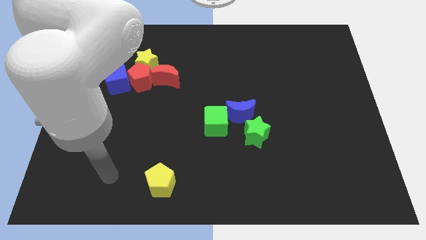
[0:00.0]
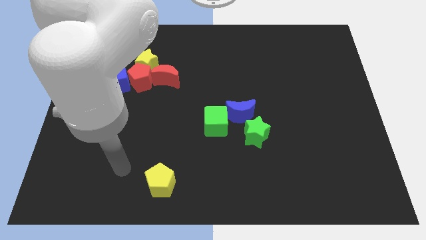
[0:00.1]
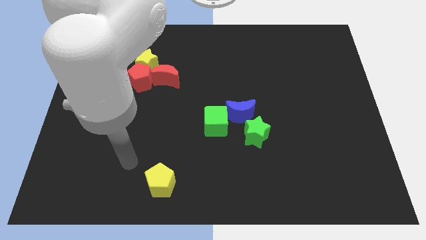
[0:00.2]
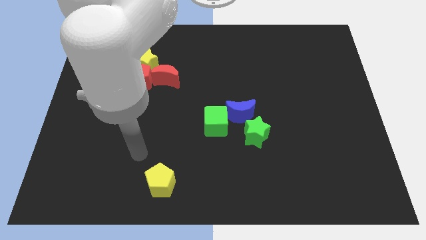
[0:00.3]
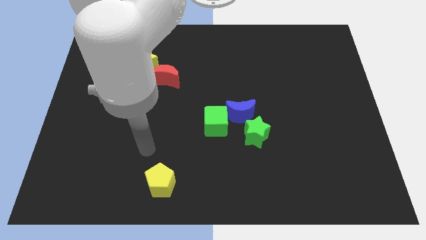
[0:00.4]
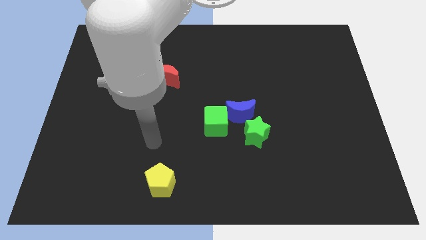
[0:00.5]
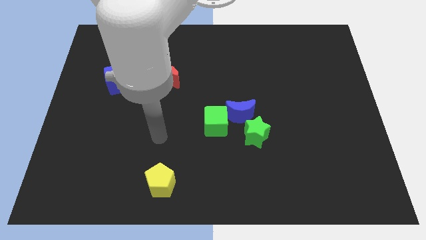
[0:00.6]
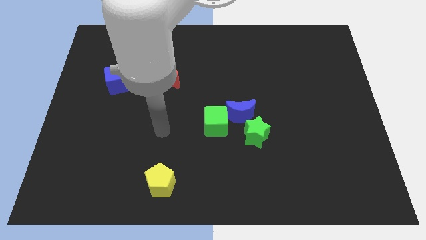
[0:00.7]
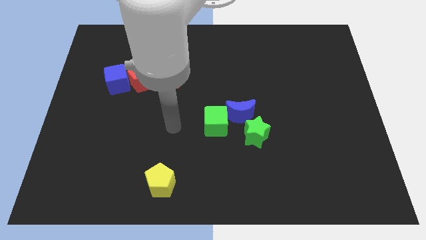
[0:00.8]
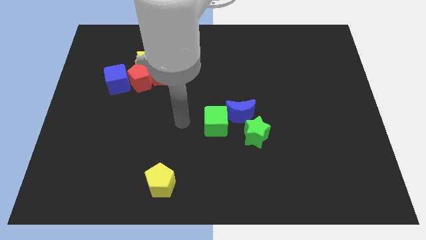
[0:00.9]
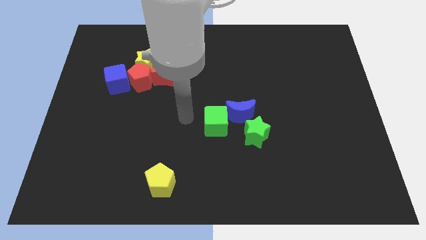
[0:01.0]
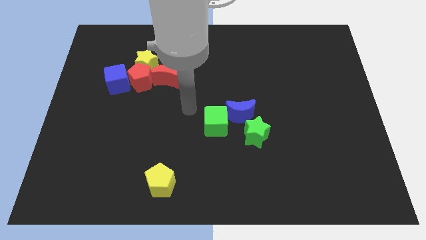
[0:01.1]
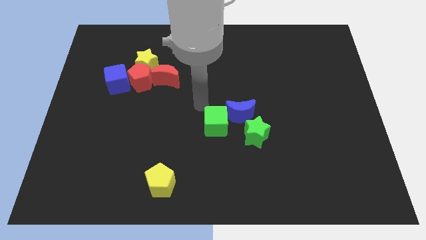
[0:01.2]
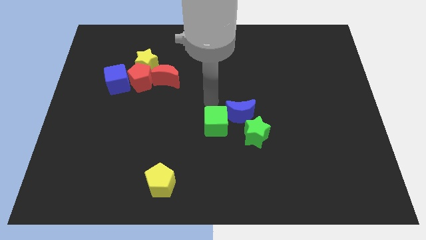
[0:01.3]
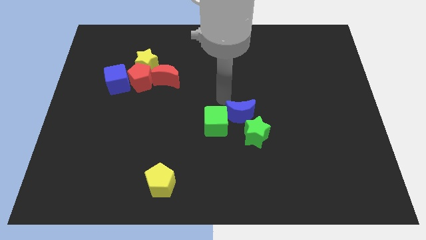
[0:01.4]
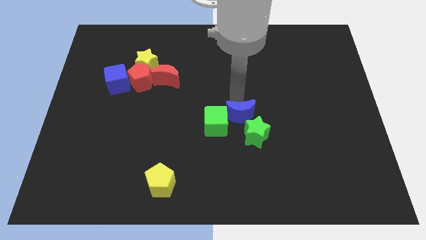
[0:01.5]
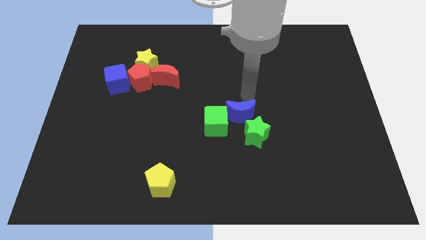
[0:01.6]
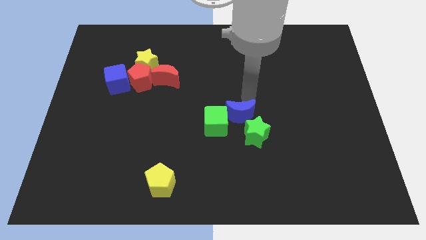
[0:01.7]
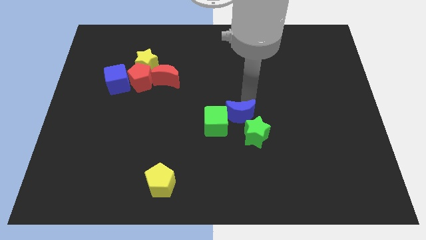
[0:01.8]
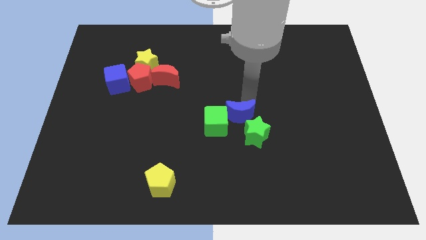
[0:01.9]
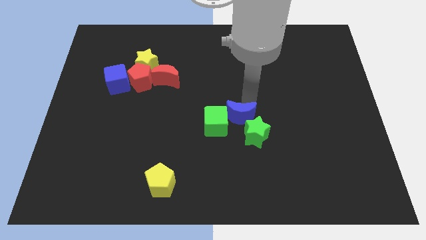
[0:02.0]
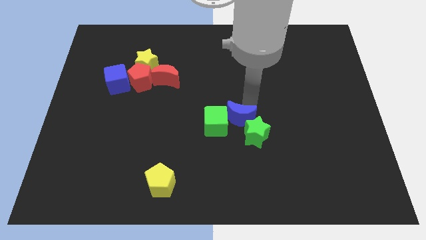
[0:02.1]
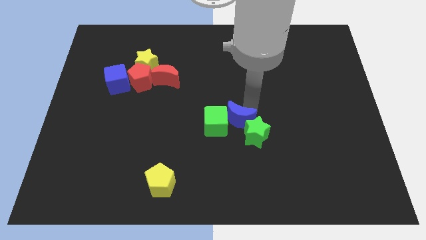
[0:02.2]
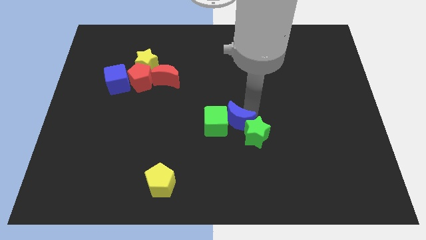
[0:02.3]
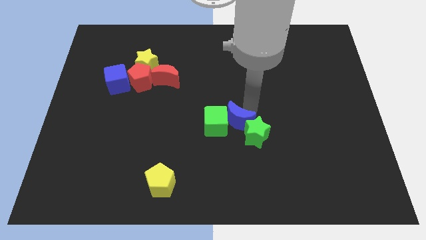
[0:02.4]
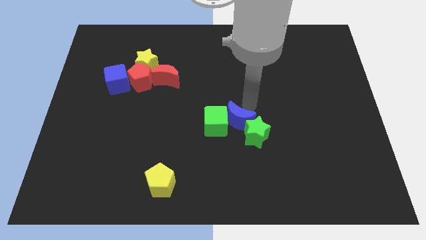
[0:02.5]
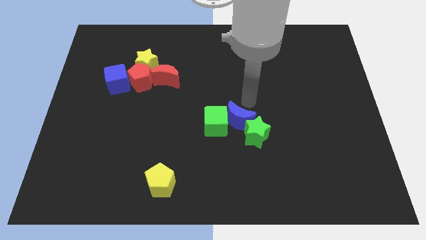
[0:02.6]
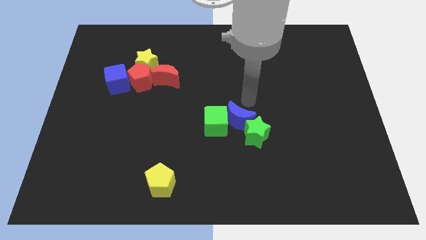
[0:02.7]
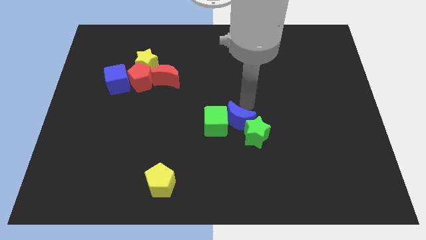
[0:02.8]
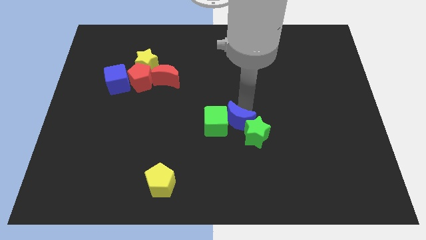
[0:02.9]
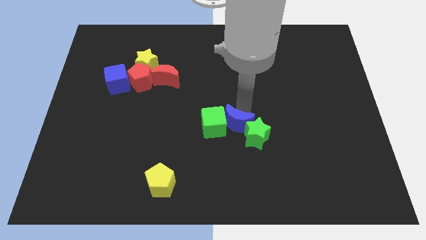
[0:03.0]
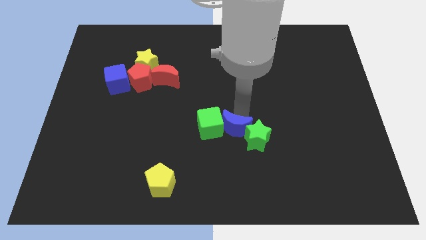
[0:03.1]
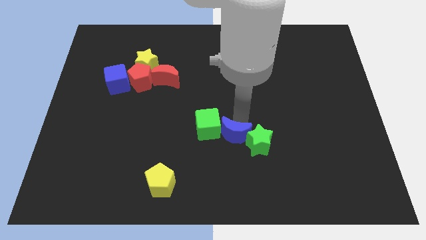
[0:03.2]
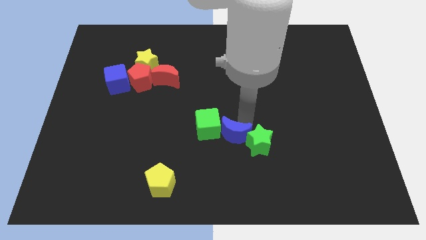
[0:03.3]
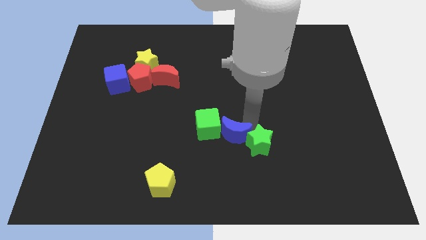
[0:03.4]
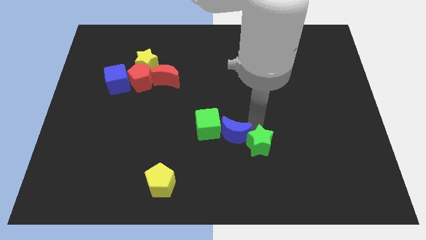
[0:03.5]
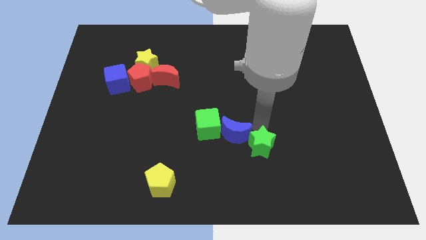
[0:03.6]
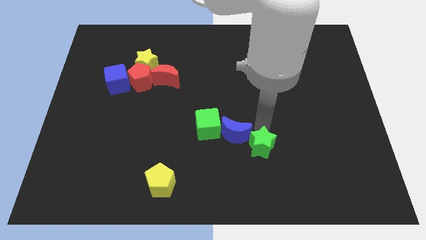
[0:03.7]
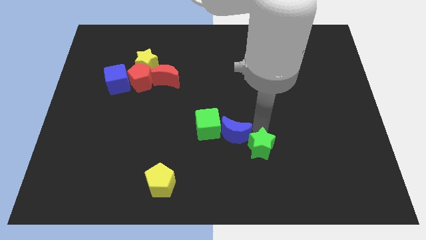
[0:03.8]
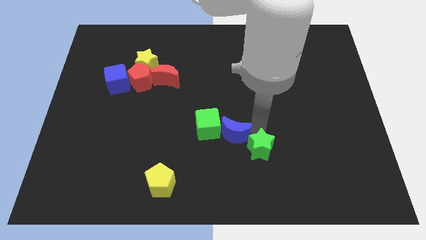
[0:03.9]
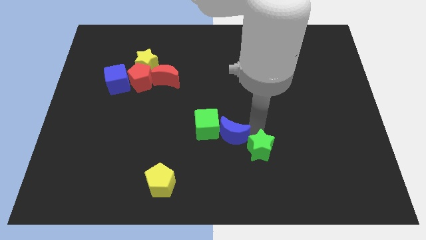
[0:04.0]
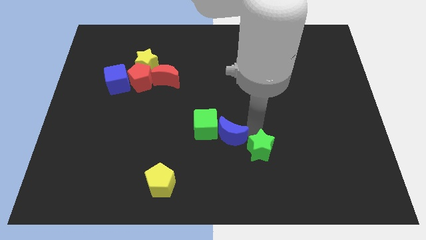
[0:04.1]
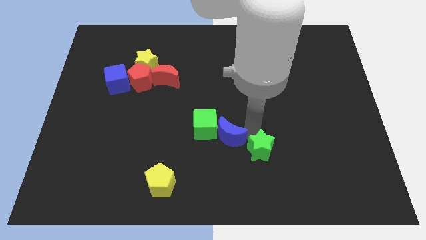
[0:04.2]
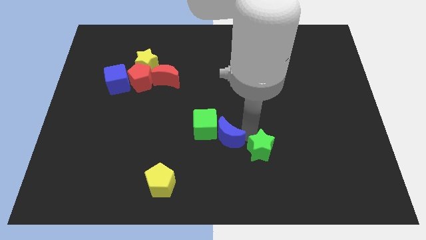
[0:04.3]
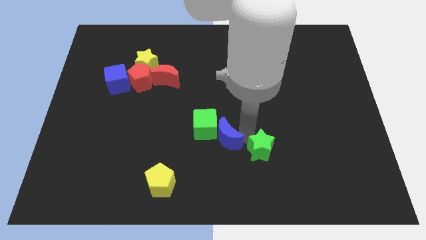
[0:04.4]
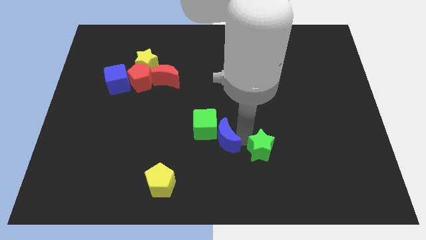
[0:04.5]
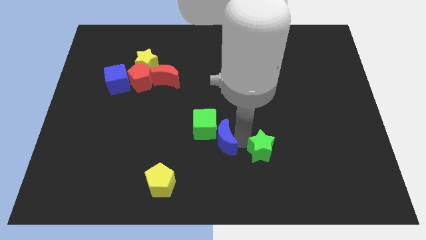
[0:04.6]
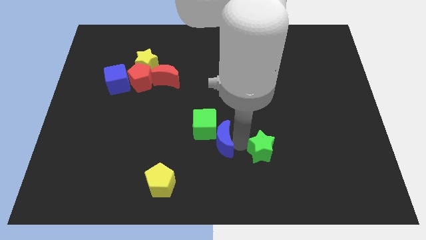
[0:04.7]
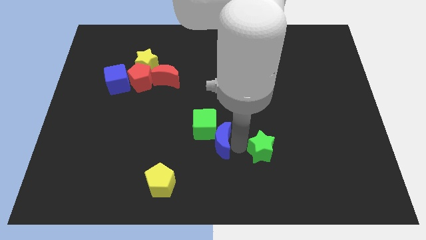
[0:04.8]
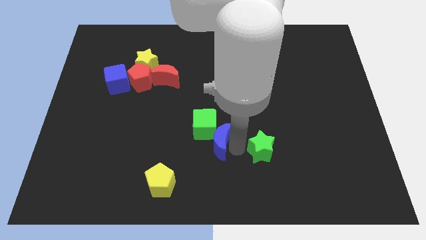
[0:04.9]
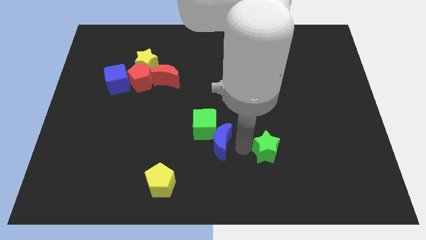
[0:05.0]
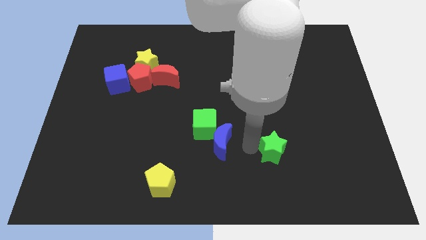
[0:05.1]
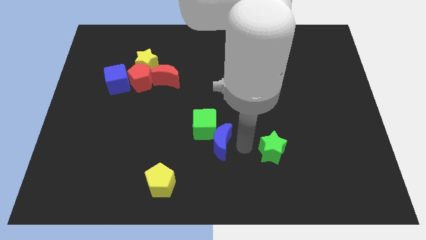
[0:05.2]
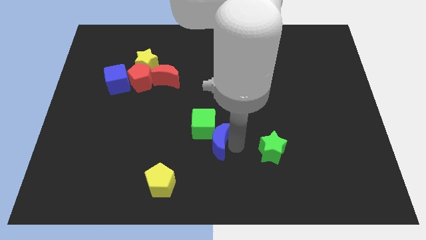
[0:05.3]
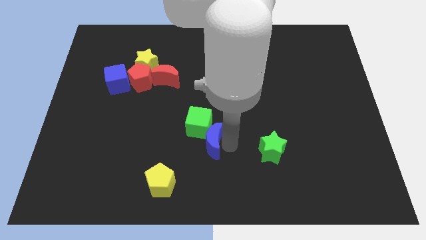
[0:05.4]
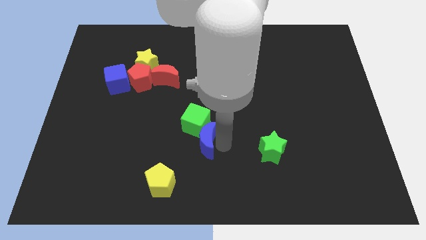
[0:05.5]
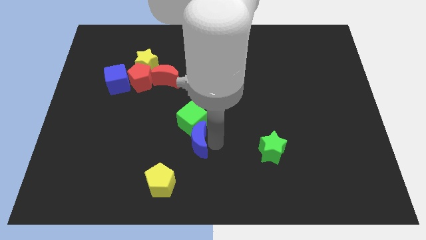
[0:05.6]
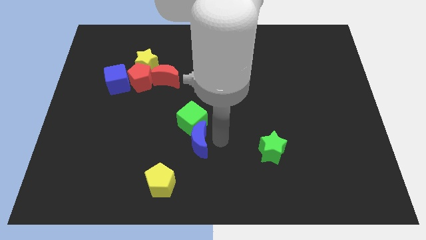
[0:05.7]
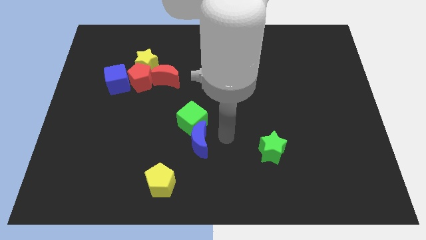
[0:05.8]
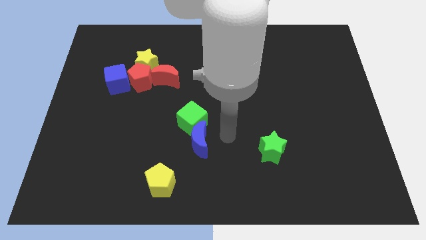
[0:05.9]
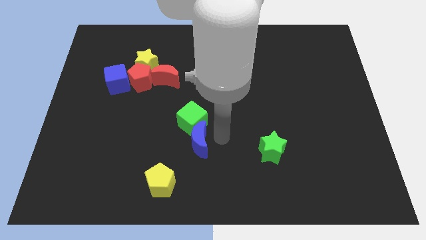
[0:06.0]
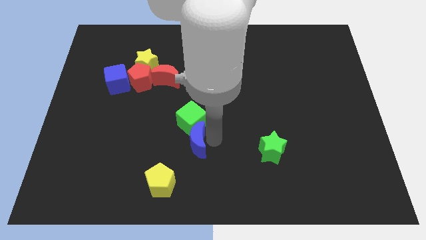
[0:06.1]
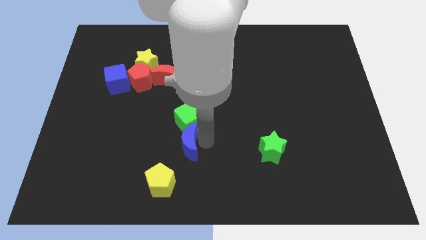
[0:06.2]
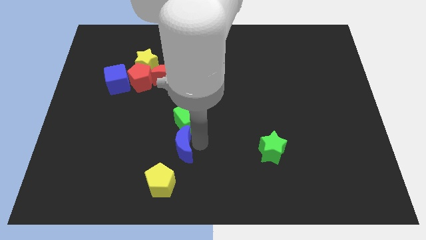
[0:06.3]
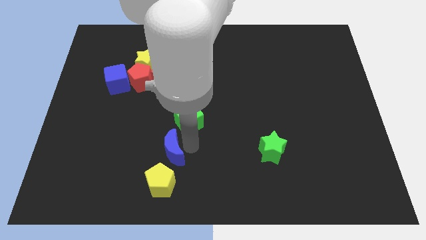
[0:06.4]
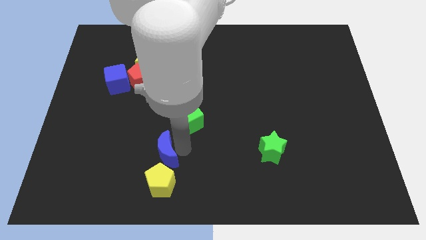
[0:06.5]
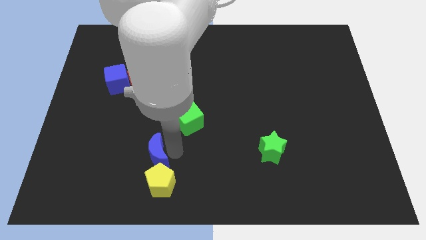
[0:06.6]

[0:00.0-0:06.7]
put the blue moon diagonally up and to the left of the yellow pentagon
